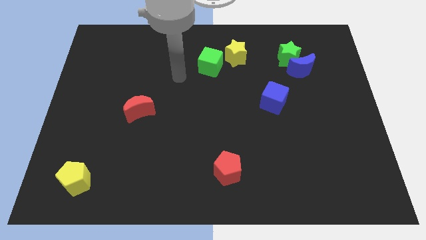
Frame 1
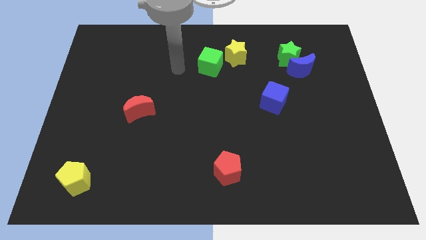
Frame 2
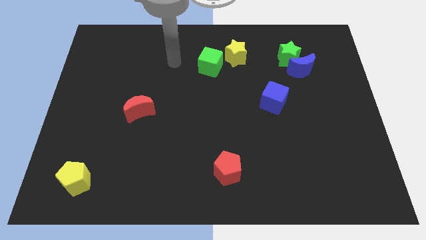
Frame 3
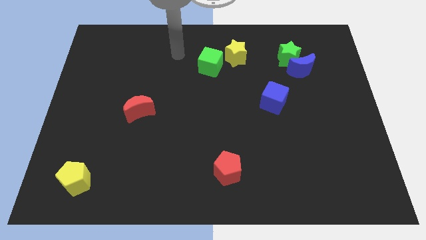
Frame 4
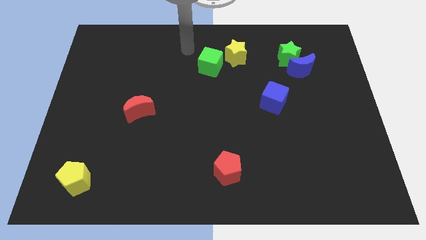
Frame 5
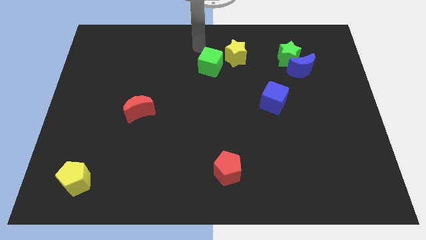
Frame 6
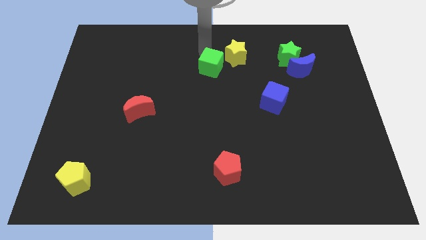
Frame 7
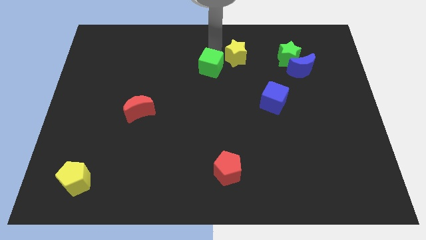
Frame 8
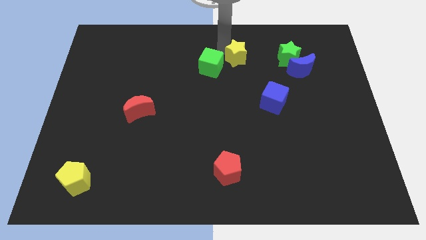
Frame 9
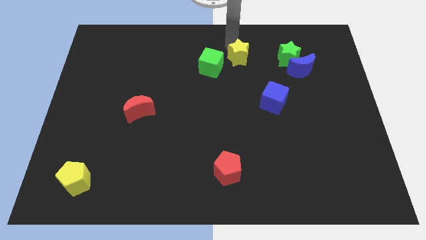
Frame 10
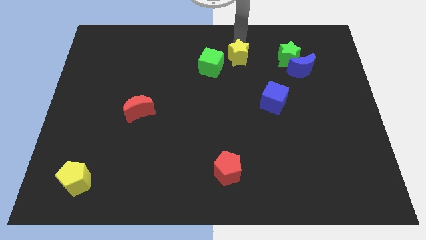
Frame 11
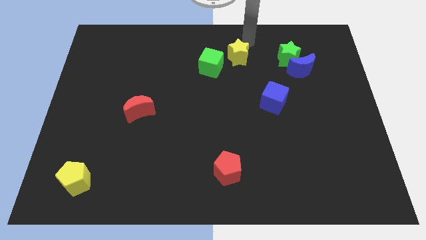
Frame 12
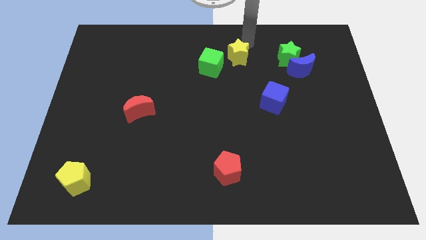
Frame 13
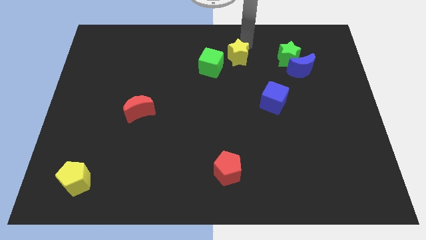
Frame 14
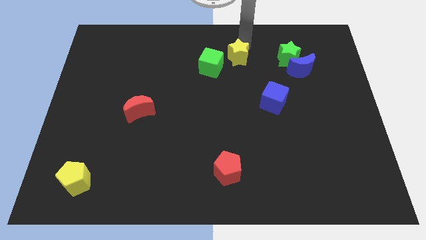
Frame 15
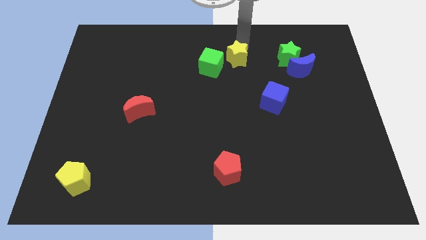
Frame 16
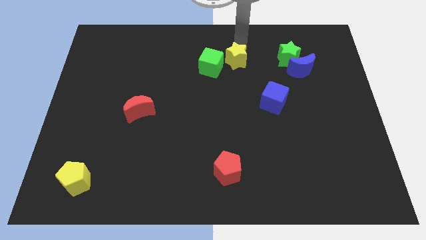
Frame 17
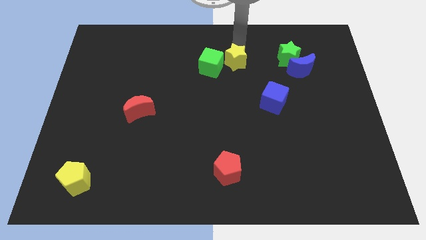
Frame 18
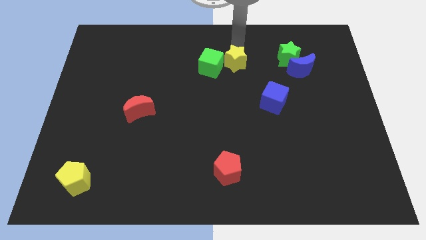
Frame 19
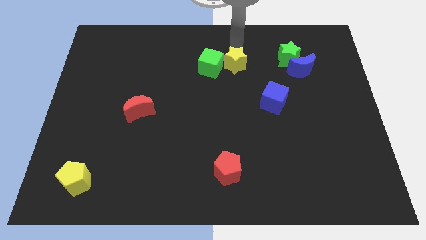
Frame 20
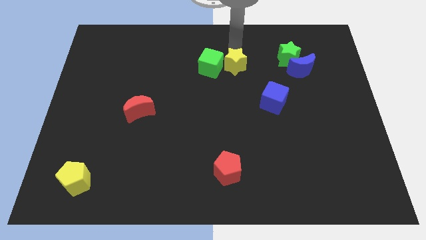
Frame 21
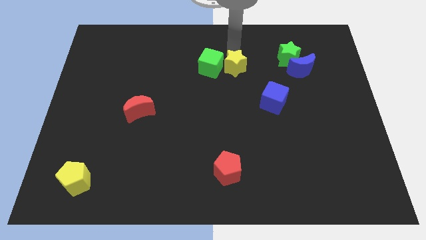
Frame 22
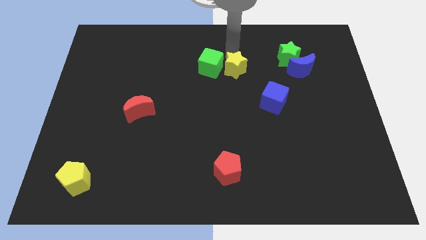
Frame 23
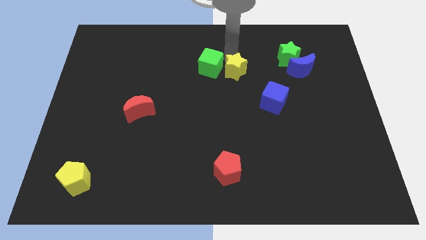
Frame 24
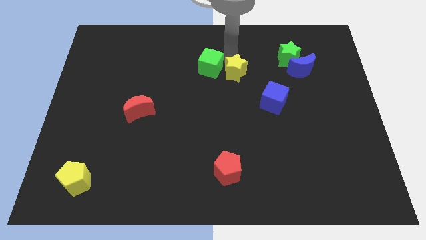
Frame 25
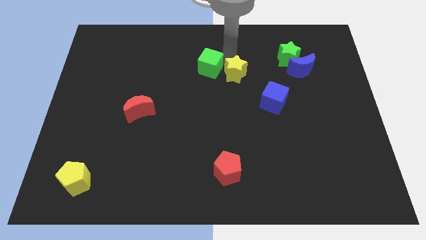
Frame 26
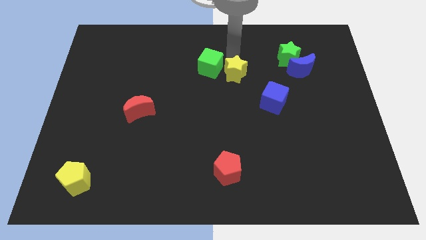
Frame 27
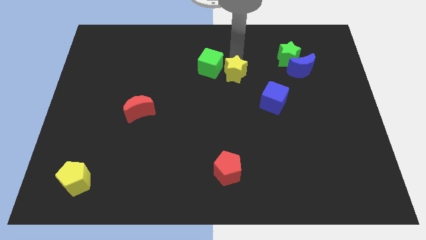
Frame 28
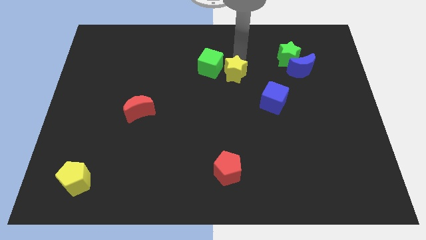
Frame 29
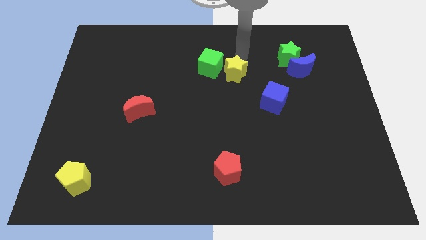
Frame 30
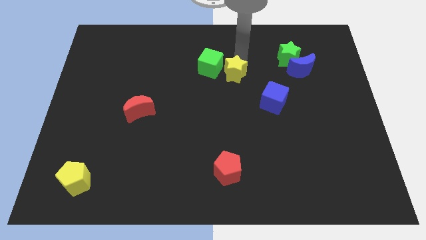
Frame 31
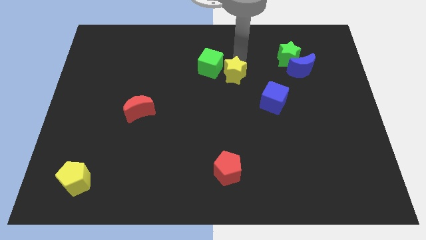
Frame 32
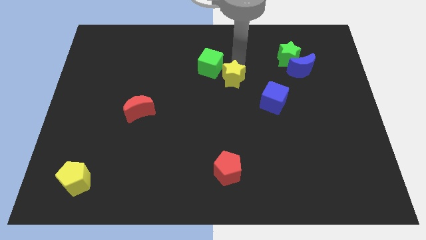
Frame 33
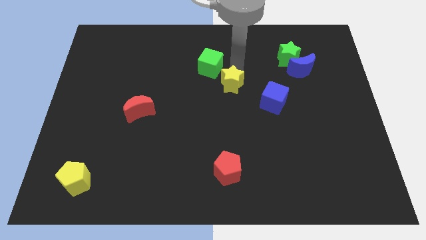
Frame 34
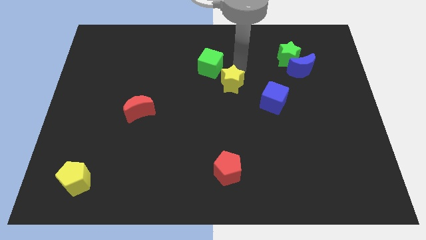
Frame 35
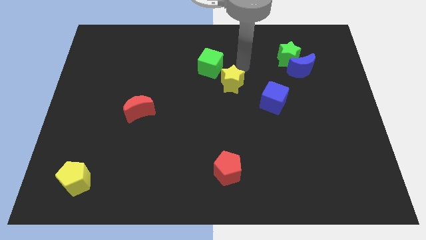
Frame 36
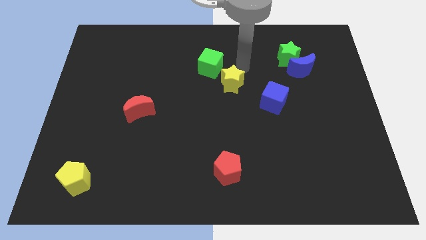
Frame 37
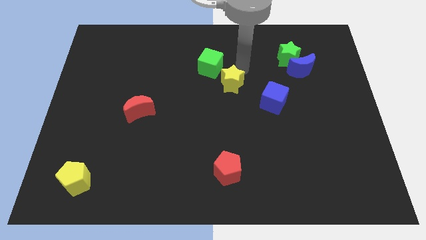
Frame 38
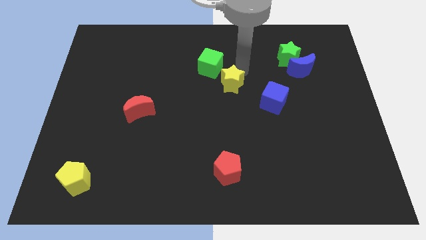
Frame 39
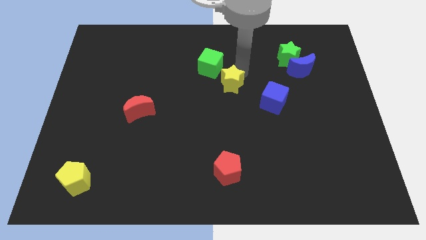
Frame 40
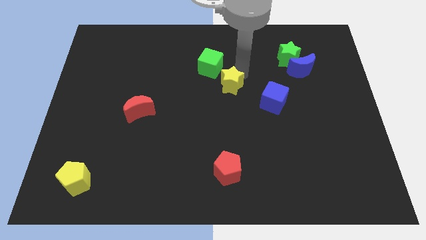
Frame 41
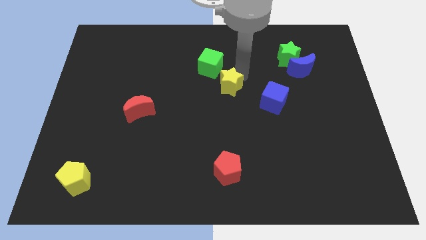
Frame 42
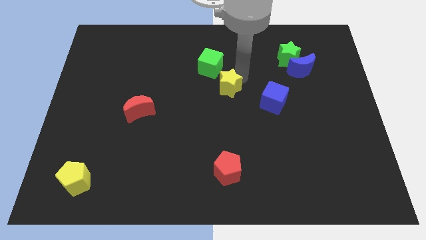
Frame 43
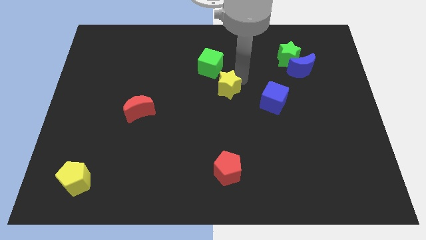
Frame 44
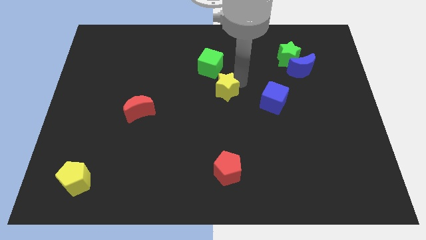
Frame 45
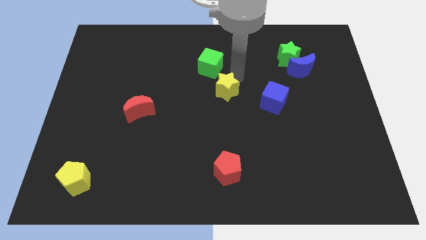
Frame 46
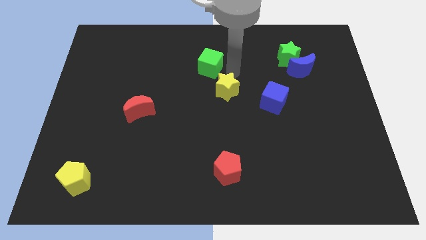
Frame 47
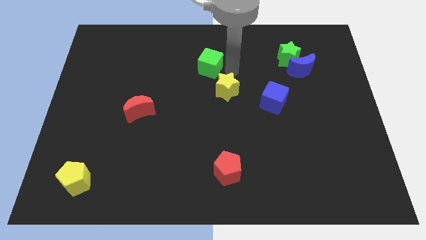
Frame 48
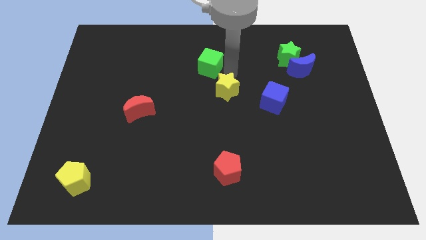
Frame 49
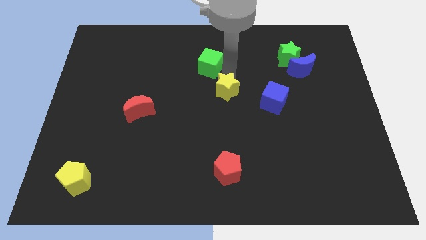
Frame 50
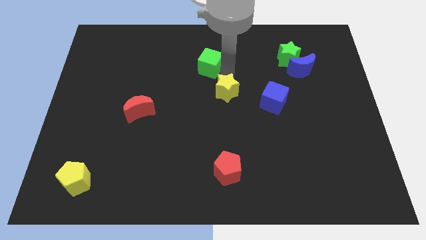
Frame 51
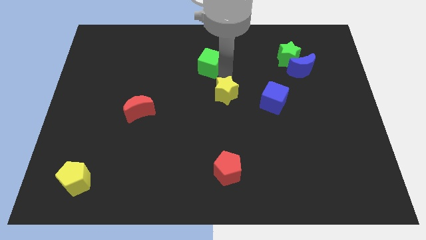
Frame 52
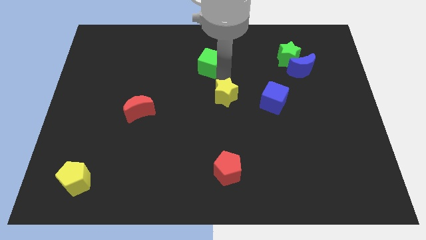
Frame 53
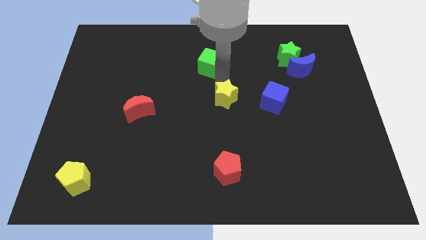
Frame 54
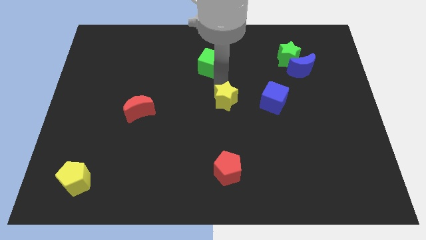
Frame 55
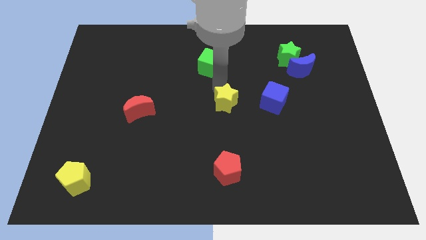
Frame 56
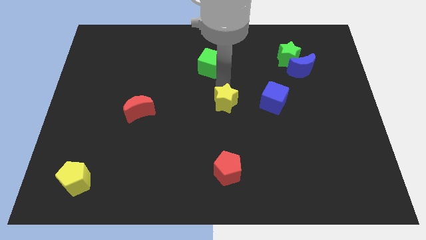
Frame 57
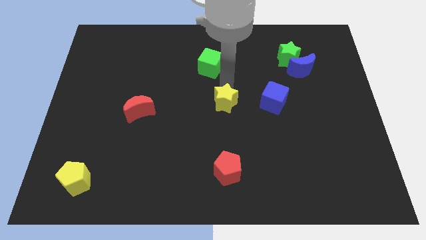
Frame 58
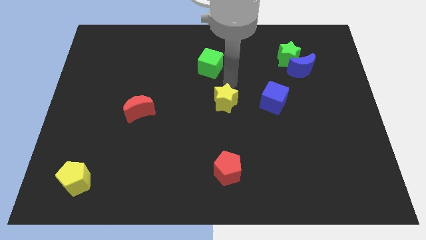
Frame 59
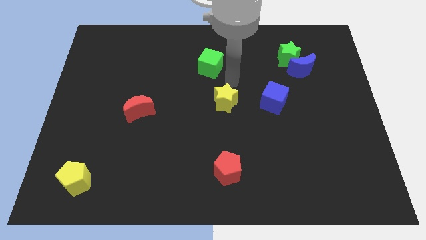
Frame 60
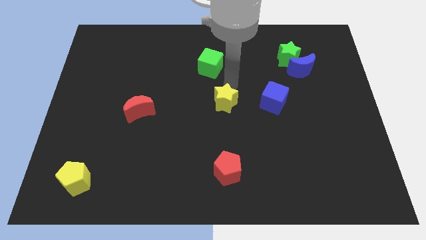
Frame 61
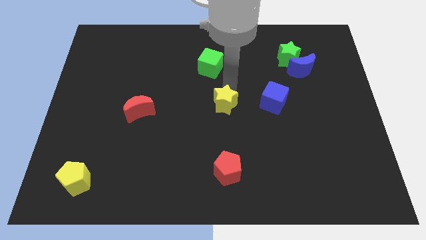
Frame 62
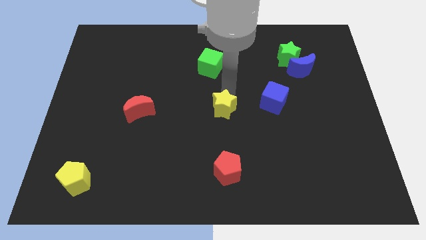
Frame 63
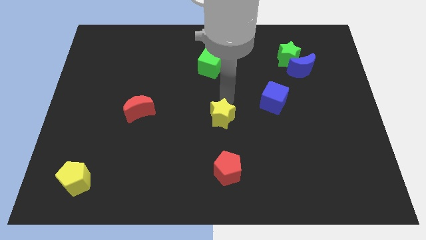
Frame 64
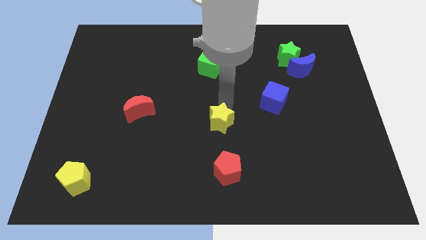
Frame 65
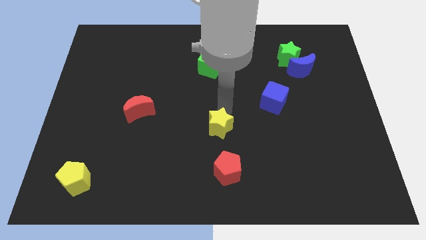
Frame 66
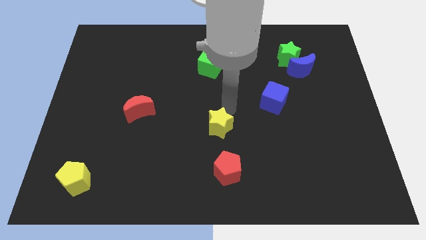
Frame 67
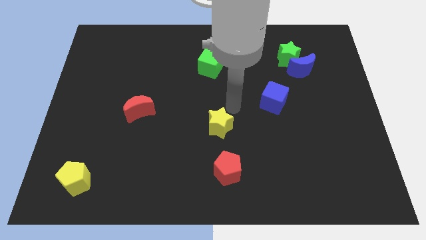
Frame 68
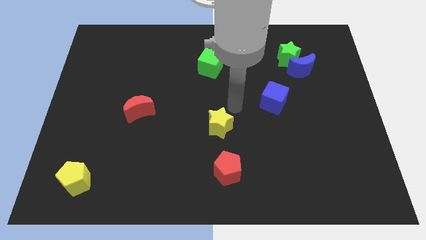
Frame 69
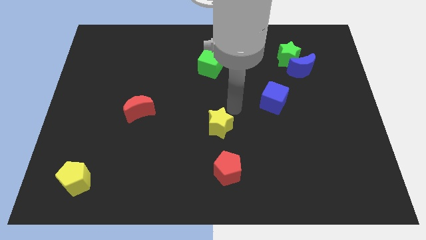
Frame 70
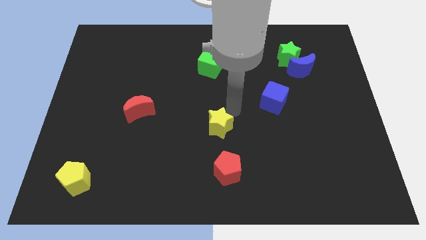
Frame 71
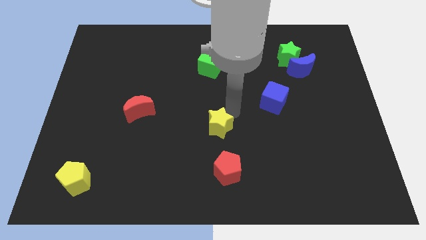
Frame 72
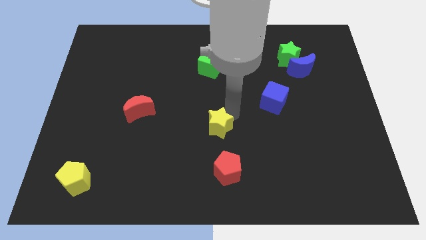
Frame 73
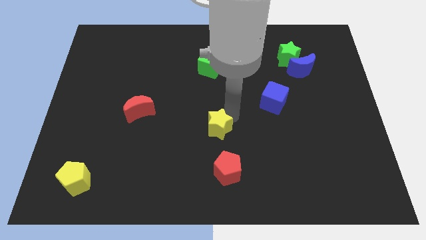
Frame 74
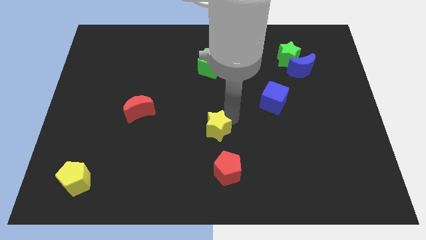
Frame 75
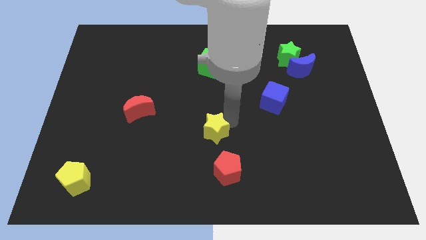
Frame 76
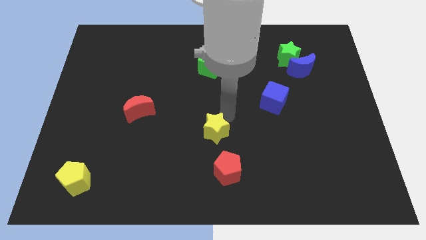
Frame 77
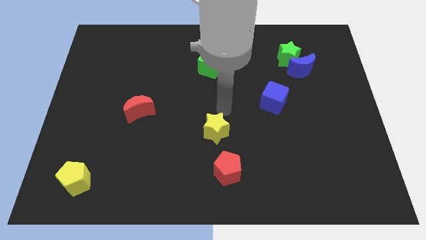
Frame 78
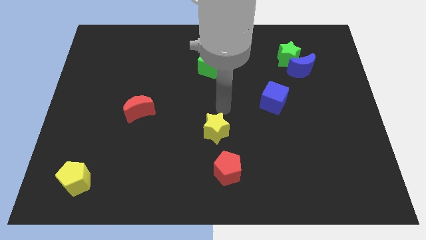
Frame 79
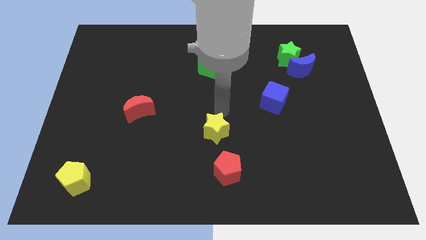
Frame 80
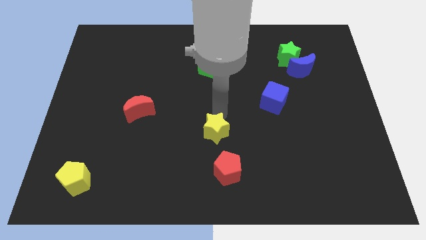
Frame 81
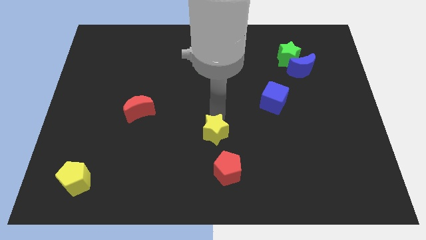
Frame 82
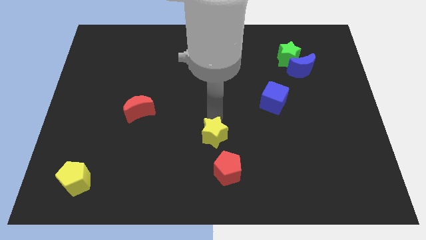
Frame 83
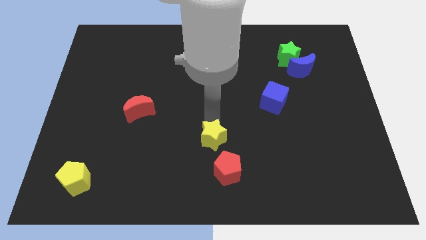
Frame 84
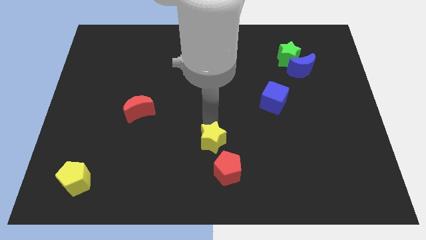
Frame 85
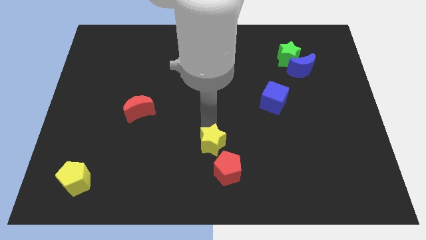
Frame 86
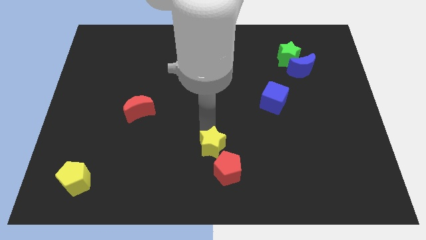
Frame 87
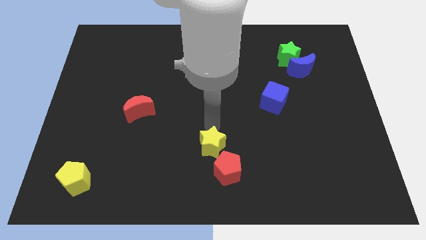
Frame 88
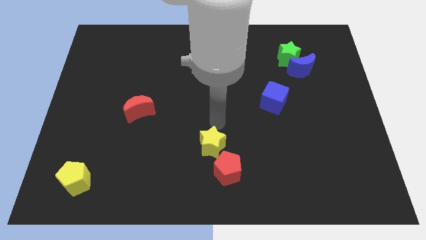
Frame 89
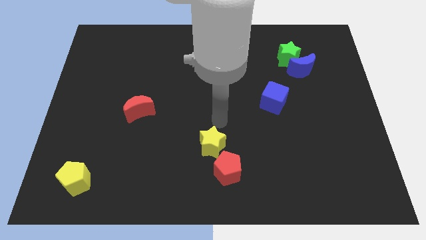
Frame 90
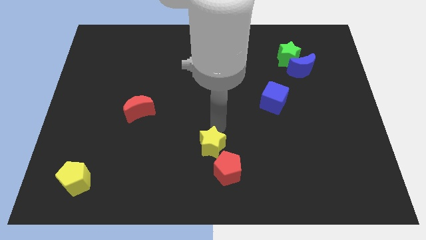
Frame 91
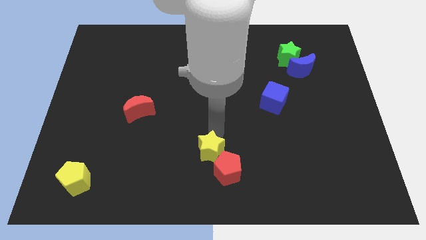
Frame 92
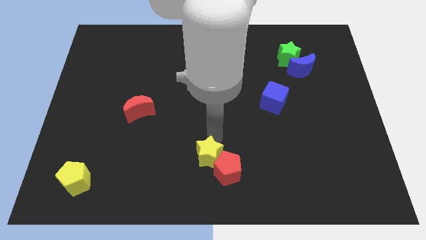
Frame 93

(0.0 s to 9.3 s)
move the yellow star to the bottom side
